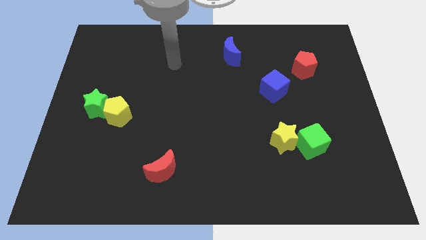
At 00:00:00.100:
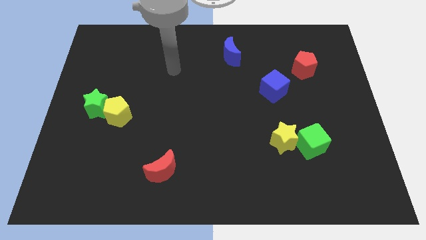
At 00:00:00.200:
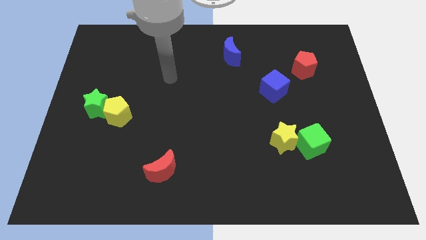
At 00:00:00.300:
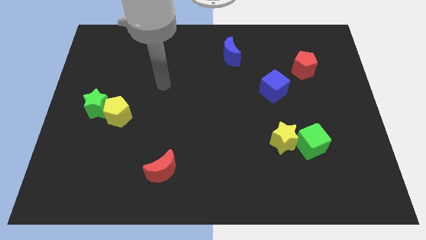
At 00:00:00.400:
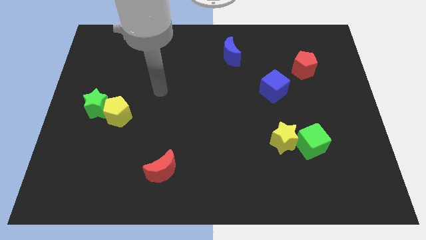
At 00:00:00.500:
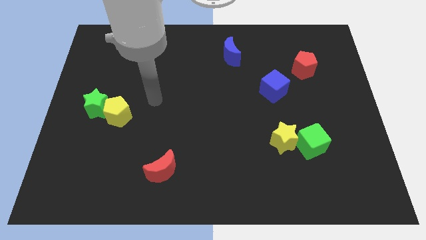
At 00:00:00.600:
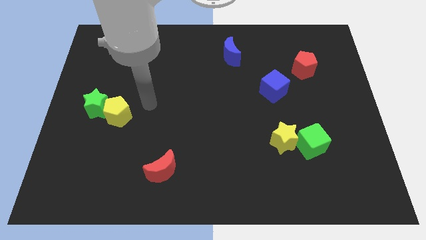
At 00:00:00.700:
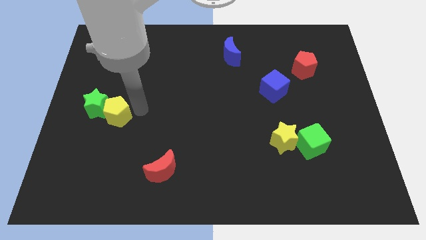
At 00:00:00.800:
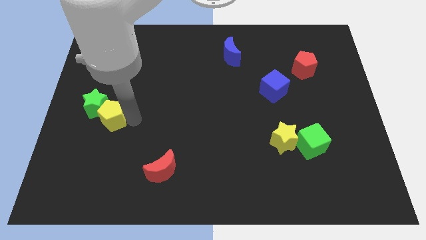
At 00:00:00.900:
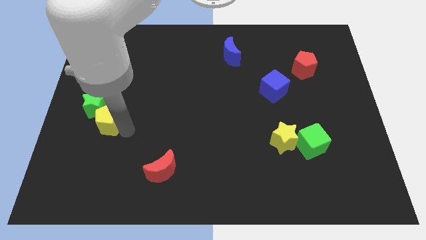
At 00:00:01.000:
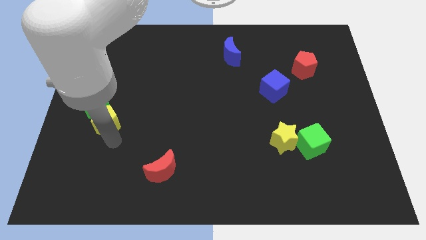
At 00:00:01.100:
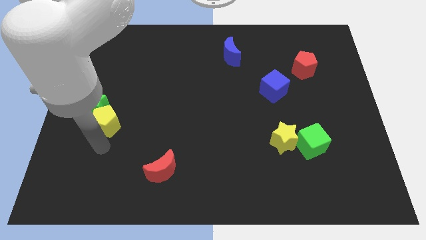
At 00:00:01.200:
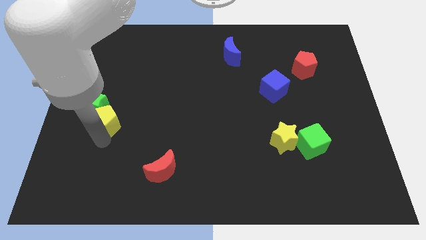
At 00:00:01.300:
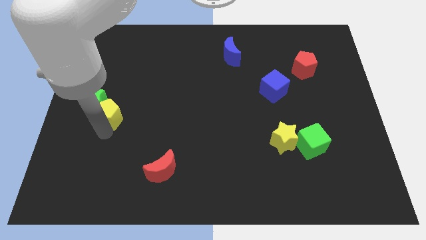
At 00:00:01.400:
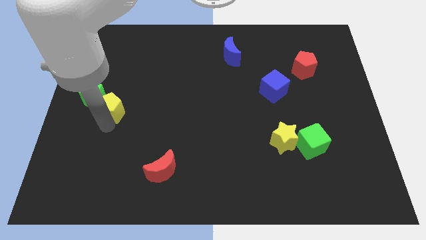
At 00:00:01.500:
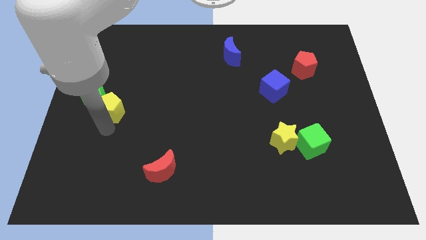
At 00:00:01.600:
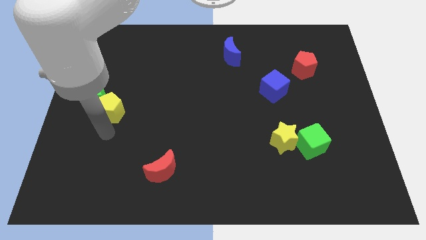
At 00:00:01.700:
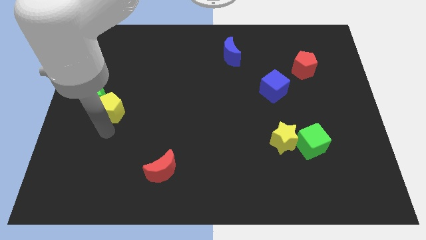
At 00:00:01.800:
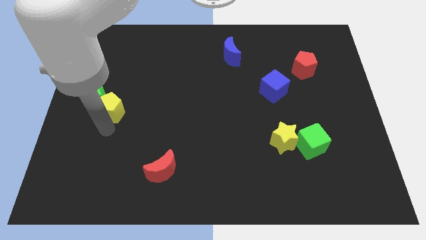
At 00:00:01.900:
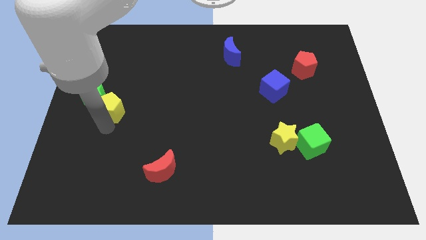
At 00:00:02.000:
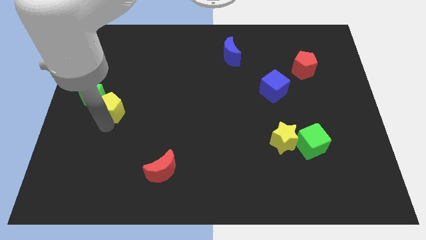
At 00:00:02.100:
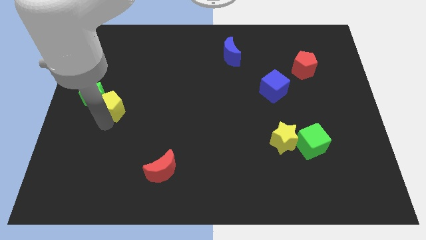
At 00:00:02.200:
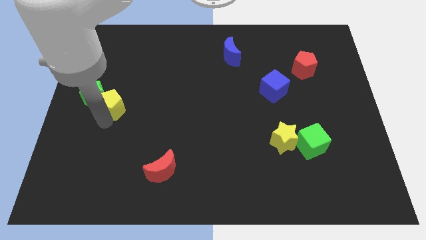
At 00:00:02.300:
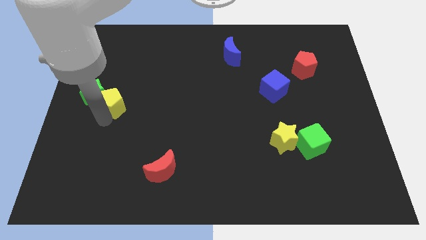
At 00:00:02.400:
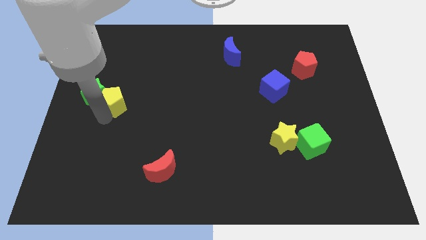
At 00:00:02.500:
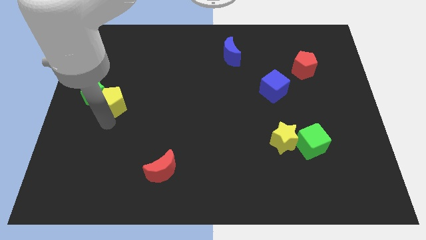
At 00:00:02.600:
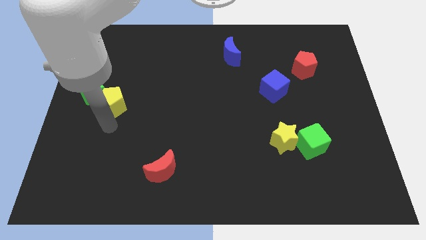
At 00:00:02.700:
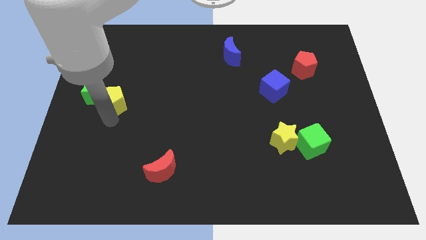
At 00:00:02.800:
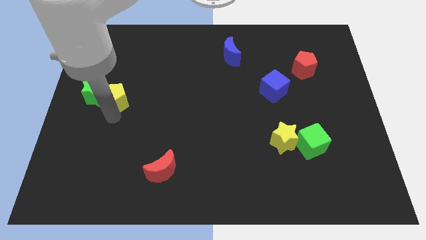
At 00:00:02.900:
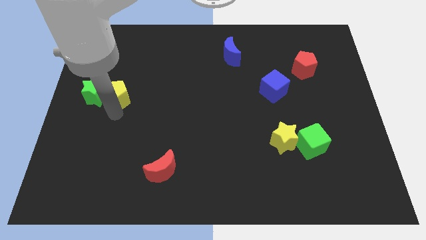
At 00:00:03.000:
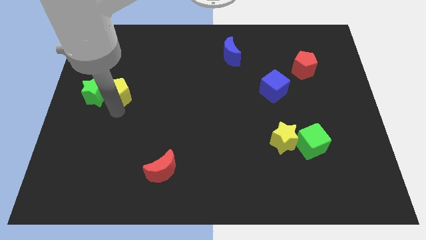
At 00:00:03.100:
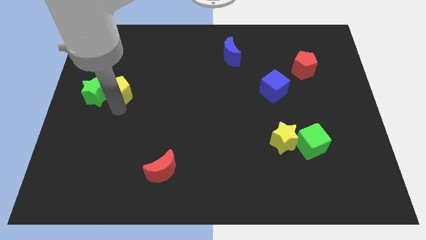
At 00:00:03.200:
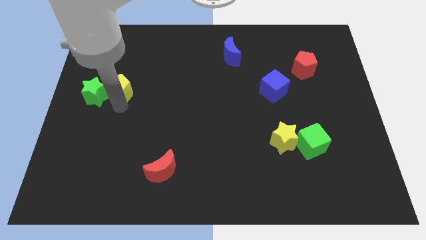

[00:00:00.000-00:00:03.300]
slightly move the yellow pentagon up

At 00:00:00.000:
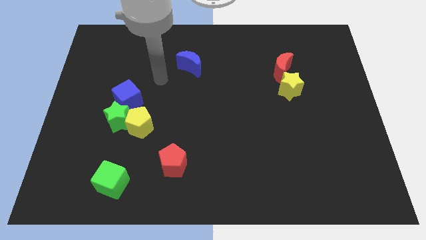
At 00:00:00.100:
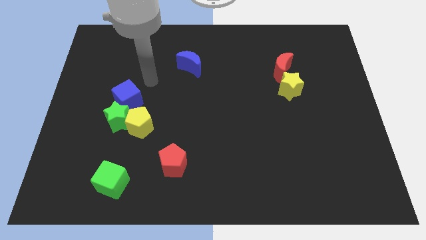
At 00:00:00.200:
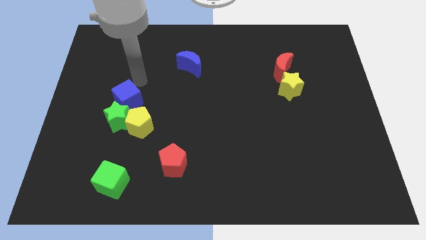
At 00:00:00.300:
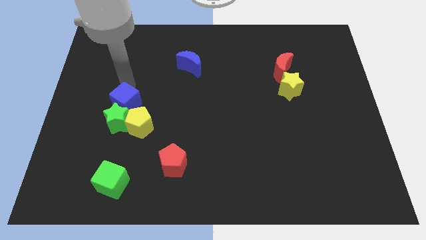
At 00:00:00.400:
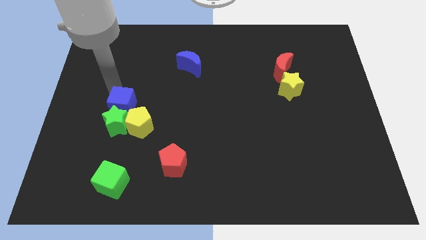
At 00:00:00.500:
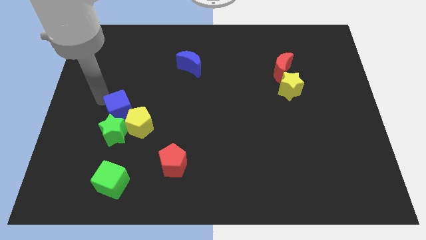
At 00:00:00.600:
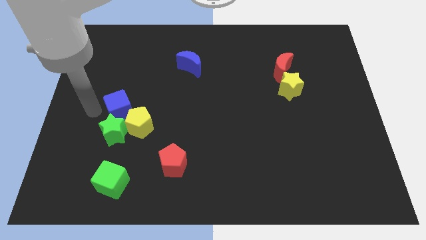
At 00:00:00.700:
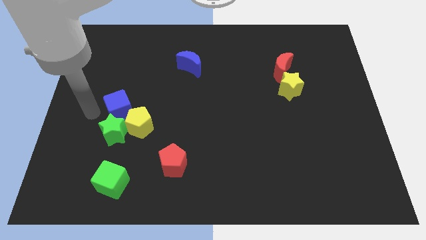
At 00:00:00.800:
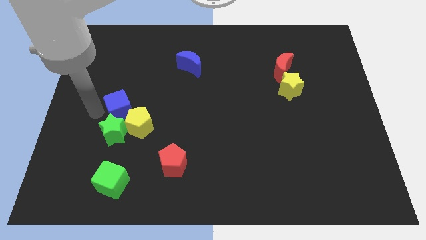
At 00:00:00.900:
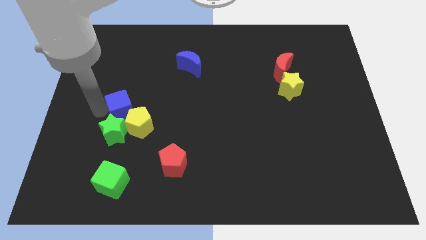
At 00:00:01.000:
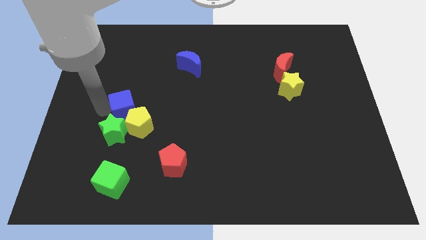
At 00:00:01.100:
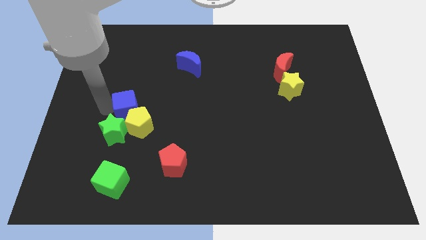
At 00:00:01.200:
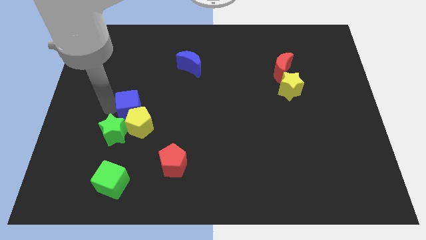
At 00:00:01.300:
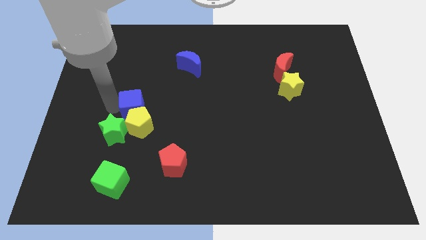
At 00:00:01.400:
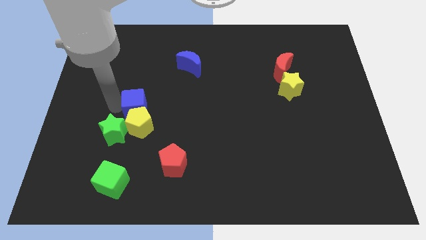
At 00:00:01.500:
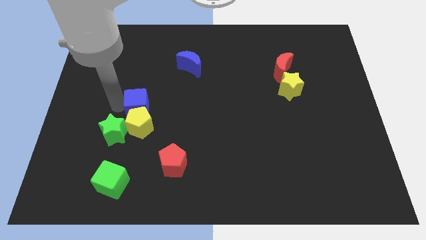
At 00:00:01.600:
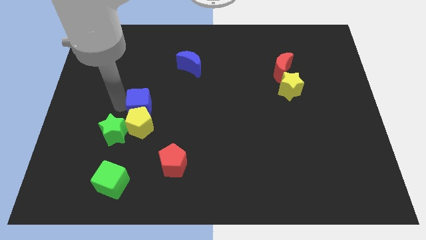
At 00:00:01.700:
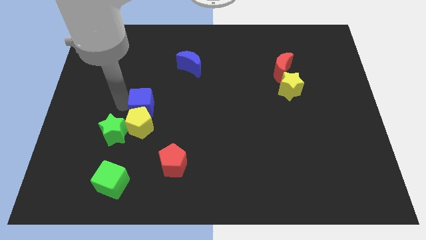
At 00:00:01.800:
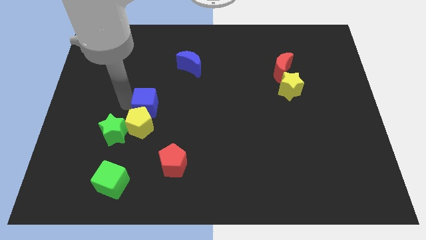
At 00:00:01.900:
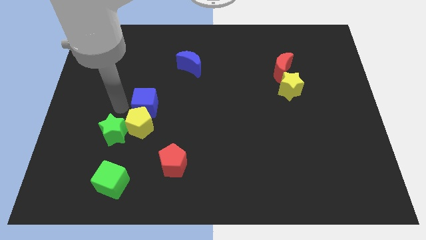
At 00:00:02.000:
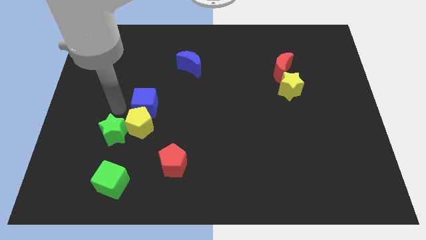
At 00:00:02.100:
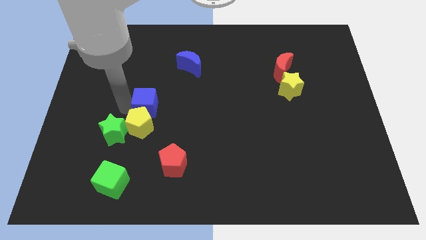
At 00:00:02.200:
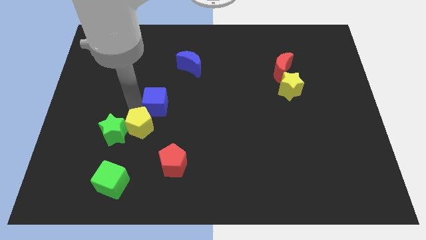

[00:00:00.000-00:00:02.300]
slide the blue cube to the right somewhat

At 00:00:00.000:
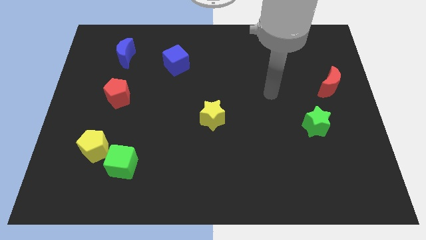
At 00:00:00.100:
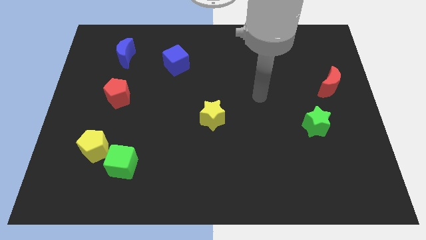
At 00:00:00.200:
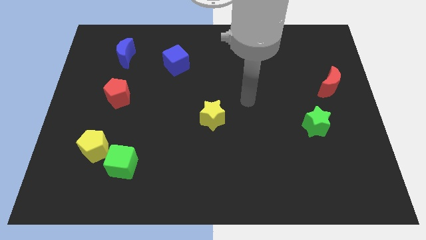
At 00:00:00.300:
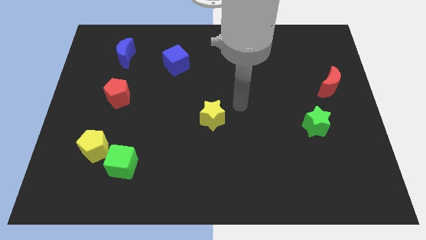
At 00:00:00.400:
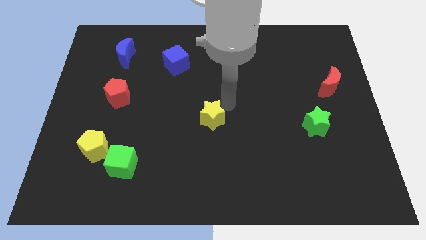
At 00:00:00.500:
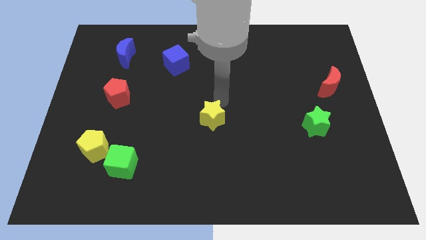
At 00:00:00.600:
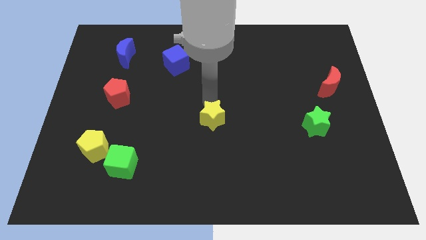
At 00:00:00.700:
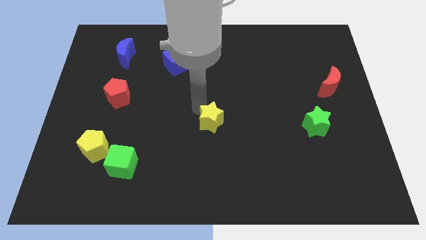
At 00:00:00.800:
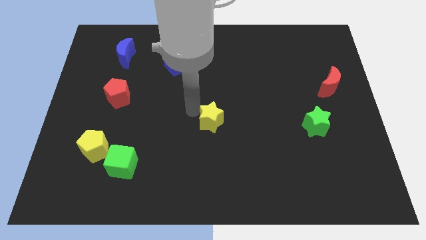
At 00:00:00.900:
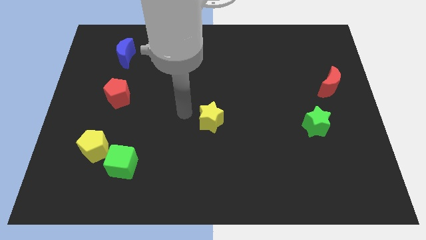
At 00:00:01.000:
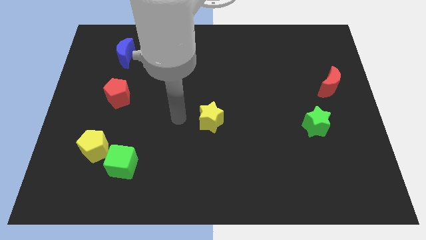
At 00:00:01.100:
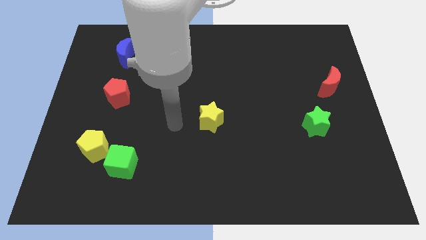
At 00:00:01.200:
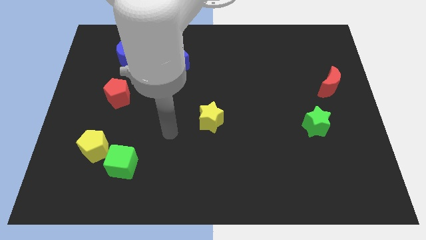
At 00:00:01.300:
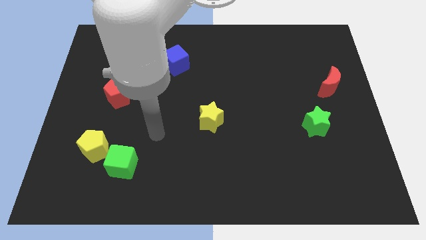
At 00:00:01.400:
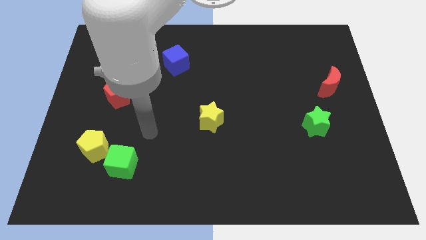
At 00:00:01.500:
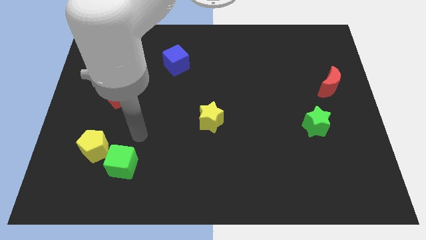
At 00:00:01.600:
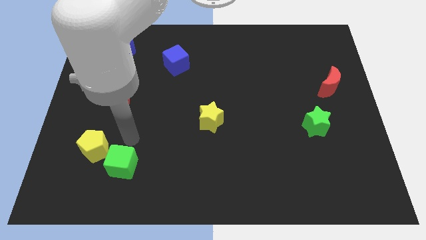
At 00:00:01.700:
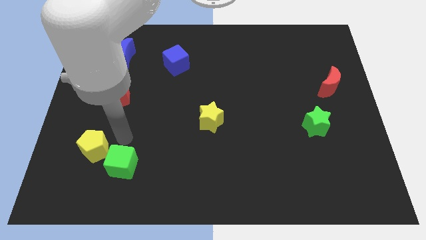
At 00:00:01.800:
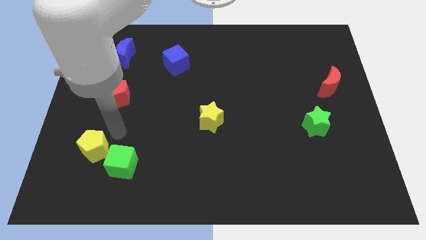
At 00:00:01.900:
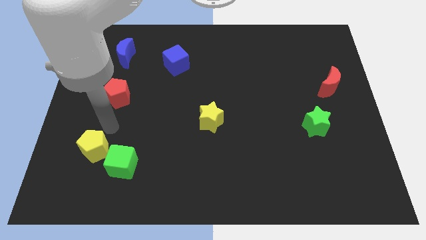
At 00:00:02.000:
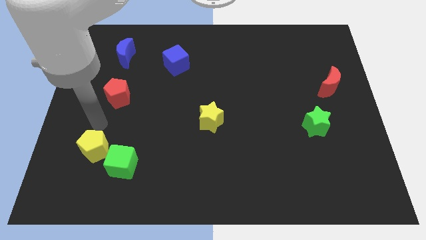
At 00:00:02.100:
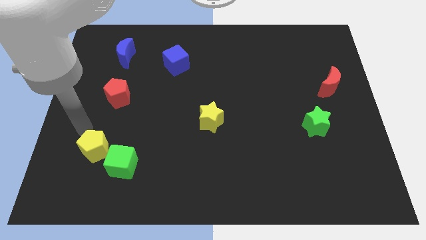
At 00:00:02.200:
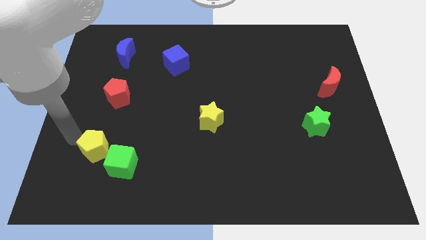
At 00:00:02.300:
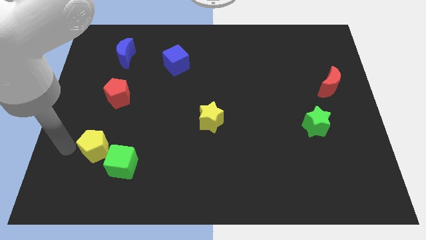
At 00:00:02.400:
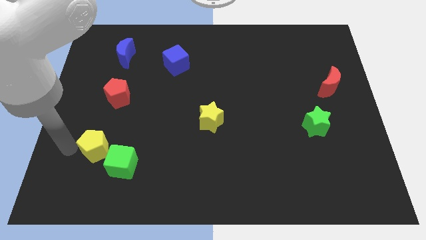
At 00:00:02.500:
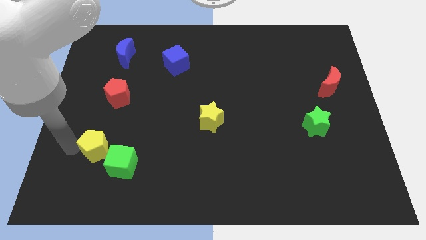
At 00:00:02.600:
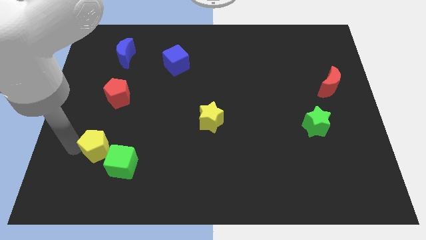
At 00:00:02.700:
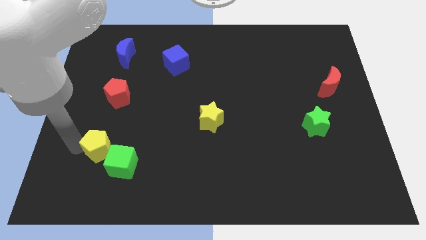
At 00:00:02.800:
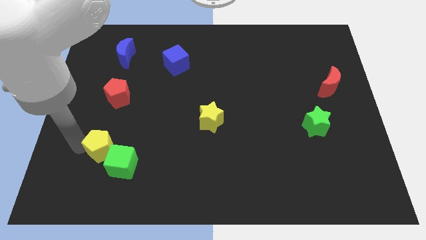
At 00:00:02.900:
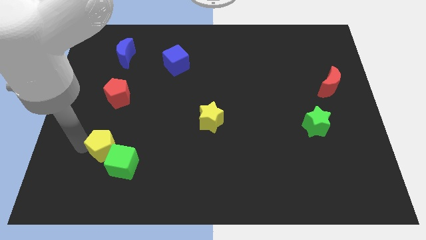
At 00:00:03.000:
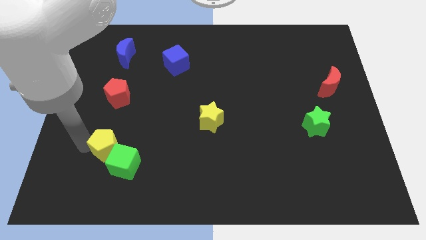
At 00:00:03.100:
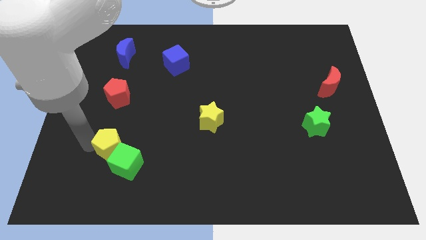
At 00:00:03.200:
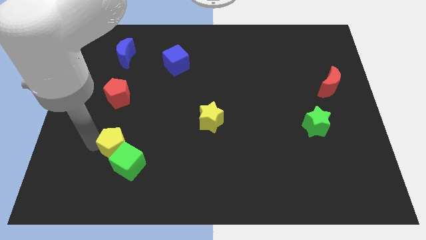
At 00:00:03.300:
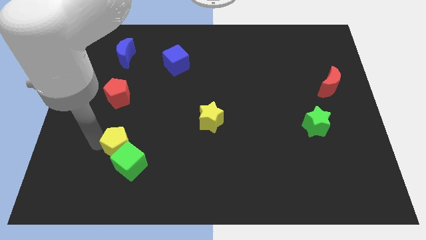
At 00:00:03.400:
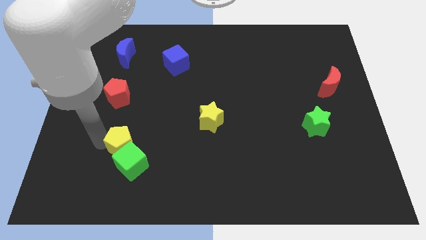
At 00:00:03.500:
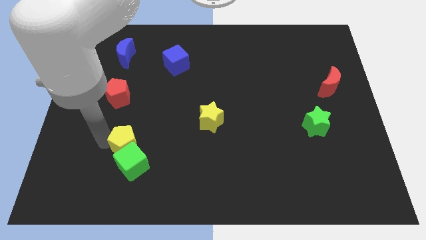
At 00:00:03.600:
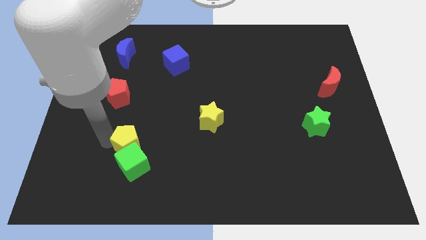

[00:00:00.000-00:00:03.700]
move the yellow pentagon a little bit right
